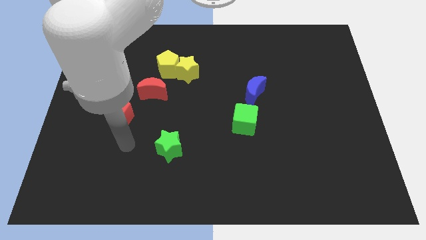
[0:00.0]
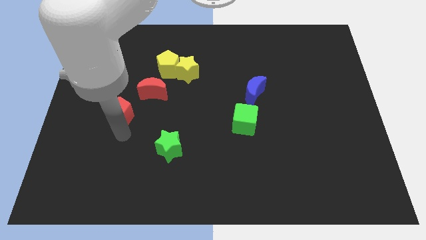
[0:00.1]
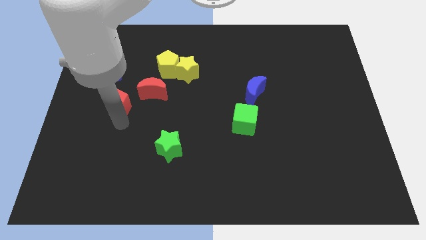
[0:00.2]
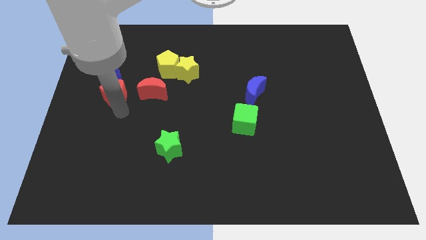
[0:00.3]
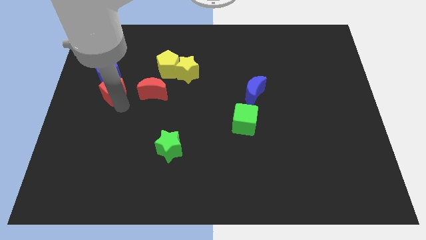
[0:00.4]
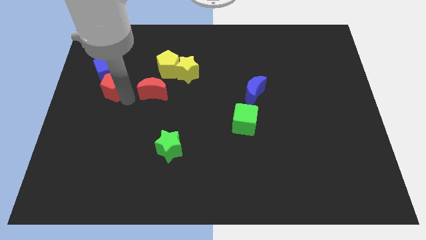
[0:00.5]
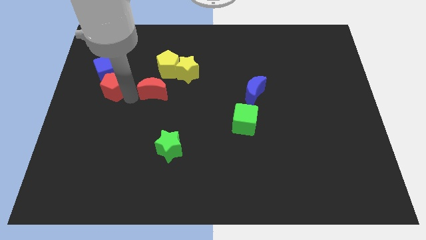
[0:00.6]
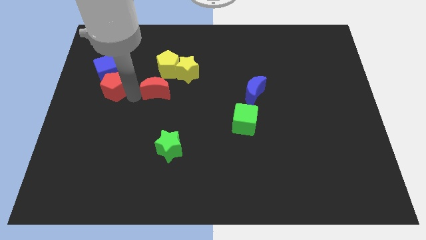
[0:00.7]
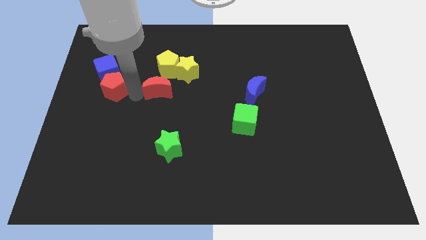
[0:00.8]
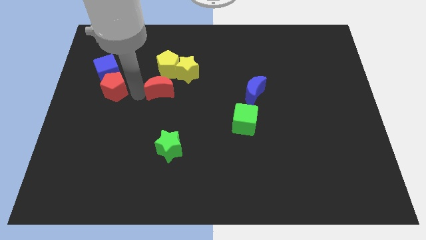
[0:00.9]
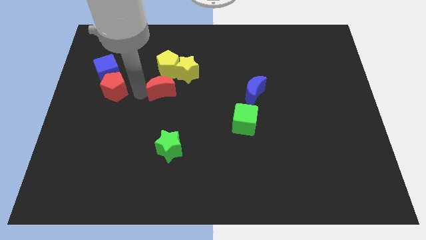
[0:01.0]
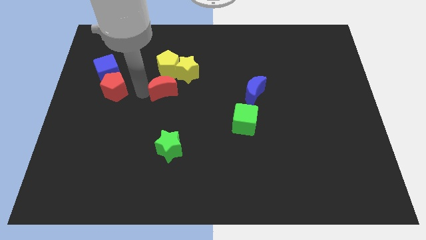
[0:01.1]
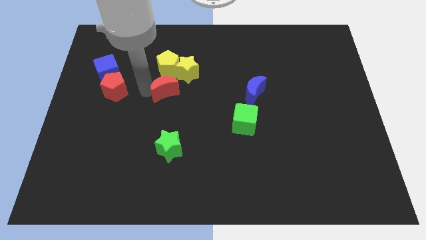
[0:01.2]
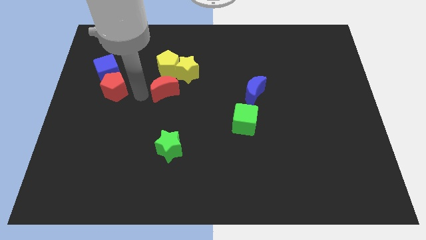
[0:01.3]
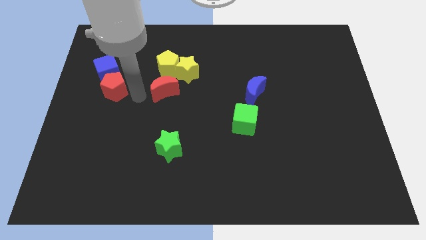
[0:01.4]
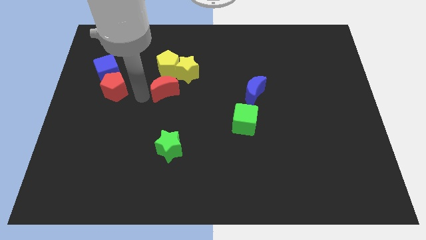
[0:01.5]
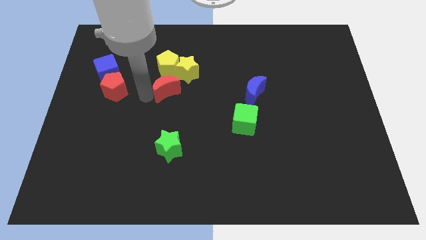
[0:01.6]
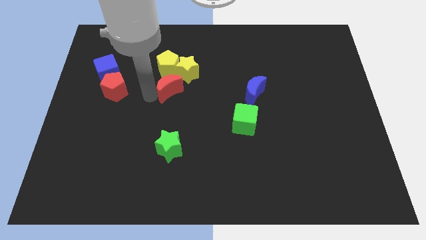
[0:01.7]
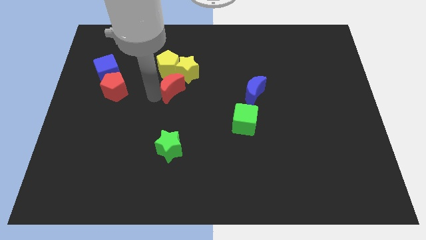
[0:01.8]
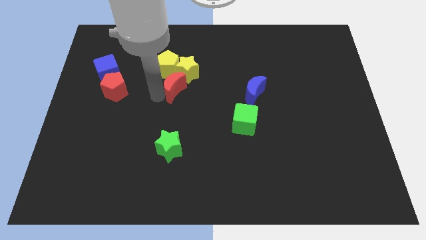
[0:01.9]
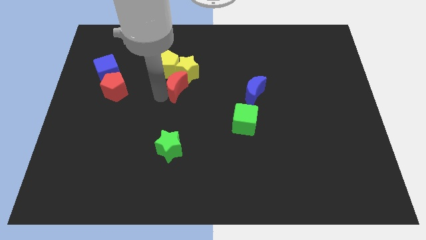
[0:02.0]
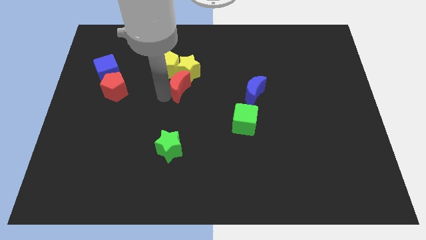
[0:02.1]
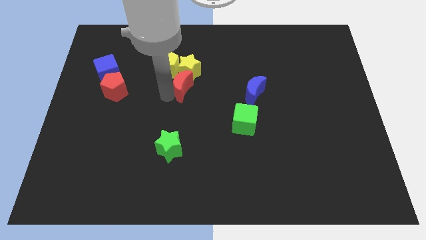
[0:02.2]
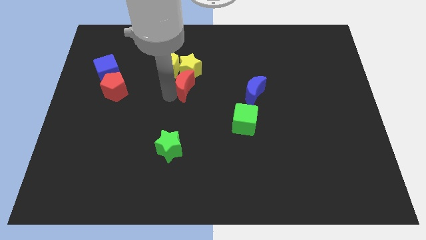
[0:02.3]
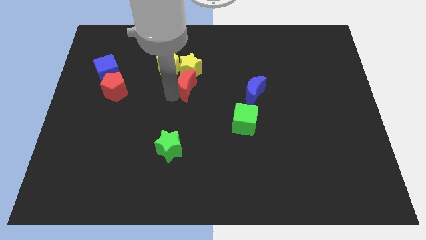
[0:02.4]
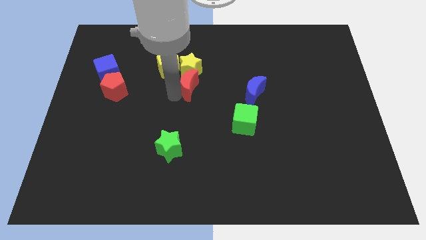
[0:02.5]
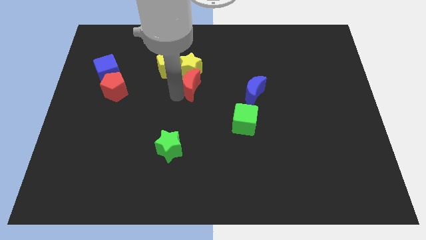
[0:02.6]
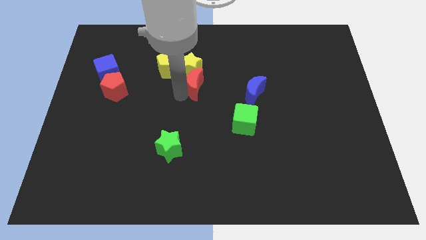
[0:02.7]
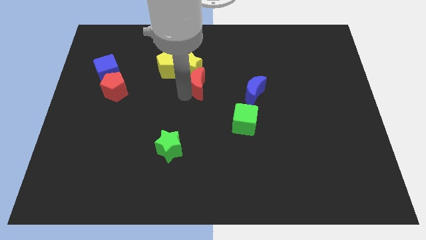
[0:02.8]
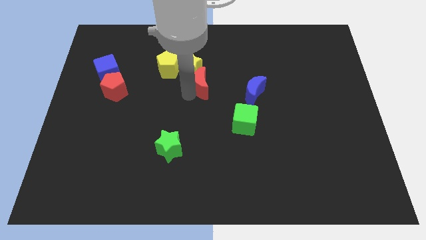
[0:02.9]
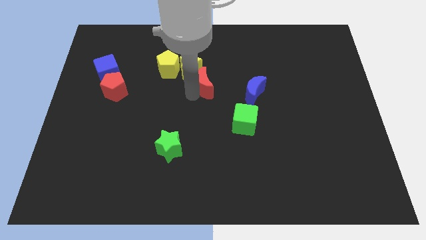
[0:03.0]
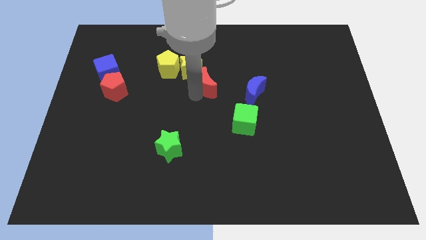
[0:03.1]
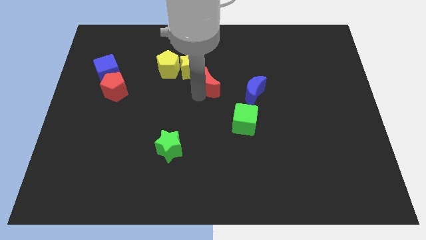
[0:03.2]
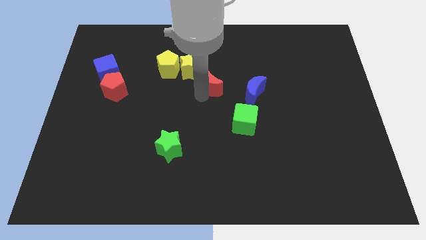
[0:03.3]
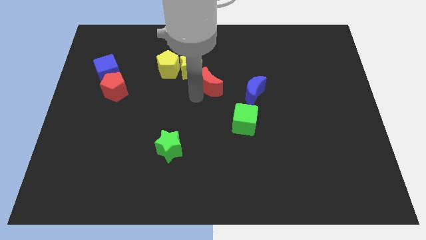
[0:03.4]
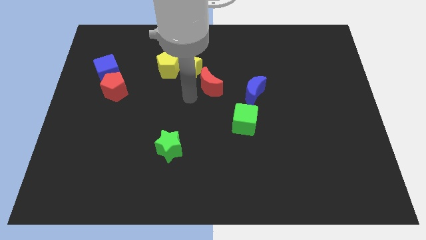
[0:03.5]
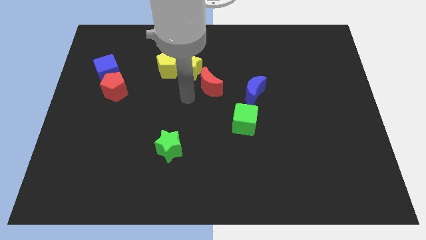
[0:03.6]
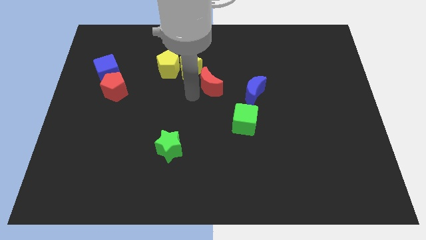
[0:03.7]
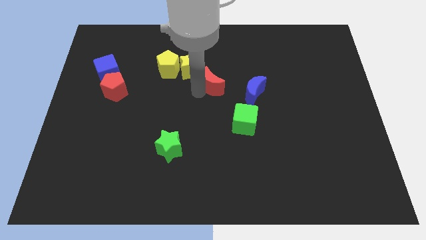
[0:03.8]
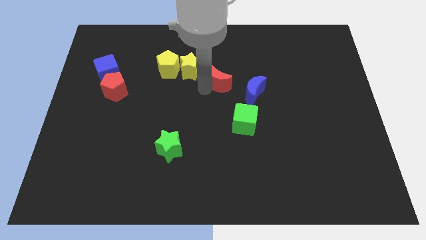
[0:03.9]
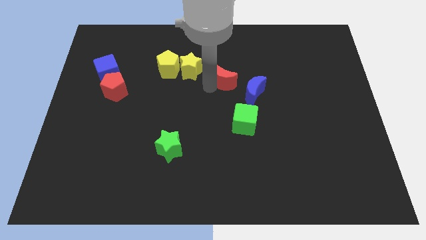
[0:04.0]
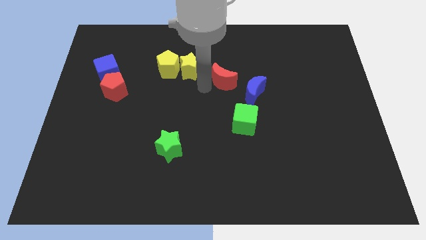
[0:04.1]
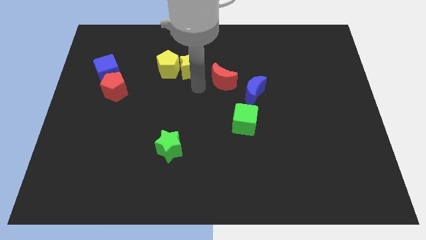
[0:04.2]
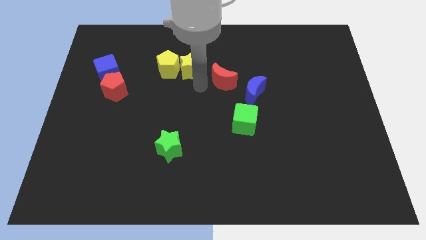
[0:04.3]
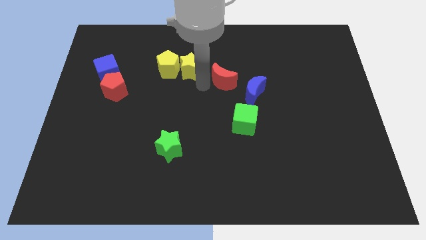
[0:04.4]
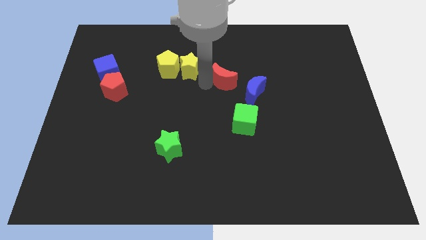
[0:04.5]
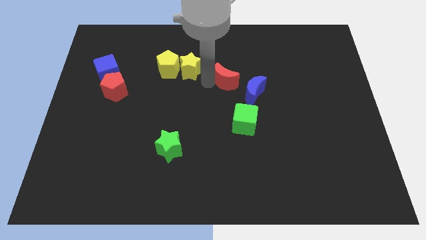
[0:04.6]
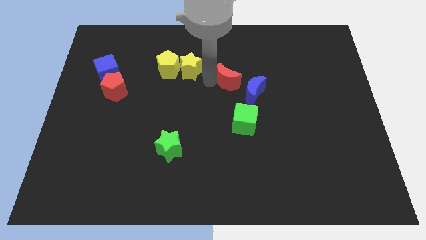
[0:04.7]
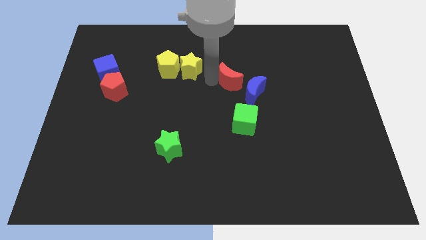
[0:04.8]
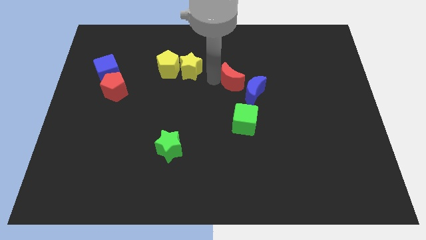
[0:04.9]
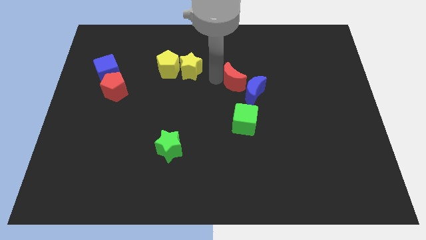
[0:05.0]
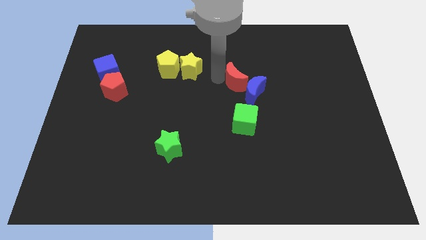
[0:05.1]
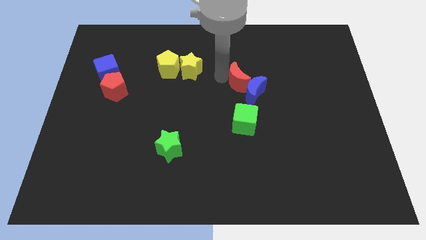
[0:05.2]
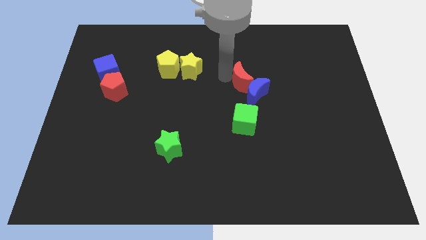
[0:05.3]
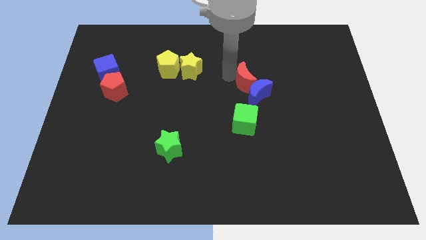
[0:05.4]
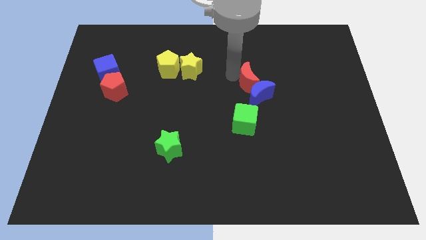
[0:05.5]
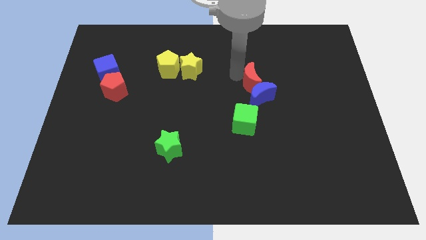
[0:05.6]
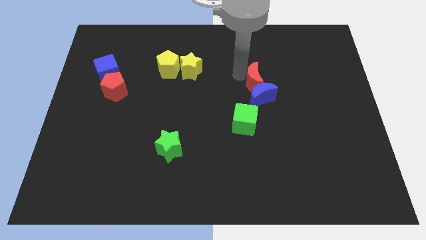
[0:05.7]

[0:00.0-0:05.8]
put the red moon to the top right side of the blue moon

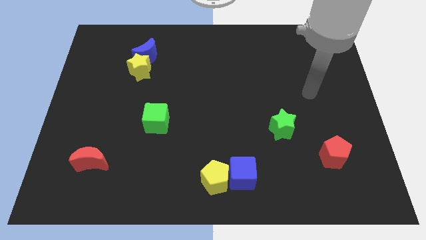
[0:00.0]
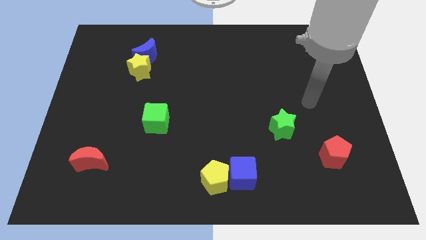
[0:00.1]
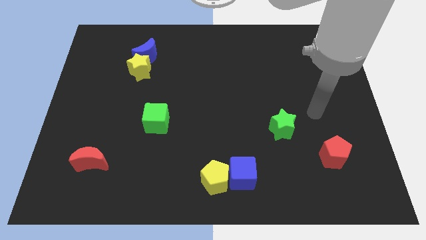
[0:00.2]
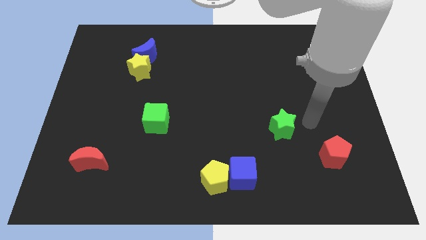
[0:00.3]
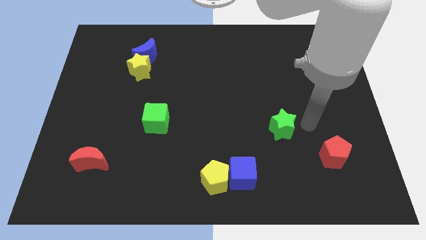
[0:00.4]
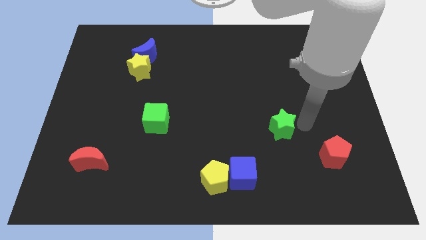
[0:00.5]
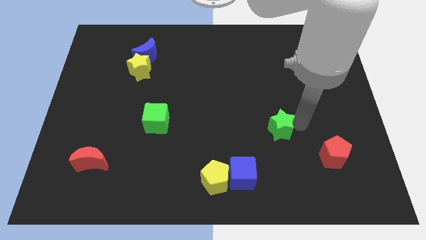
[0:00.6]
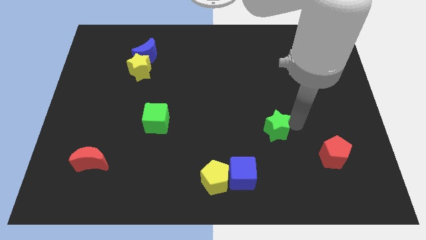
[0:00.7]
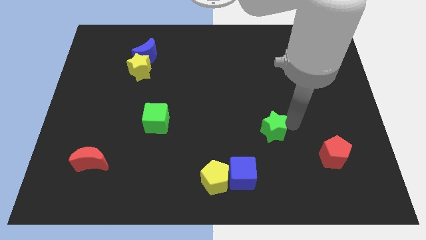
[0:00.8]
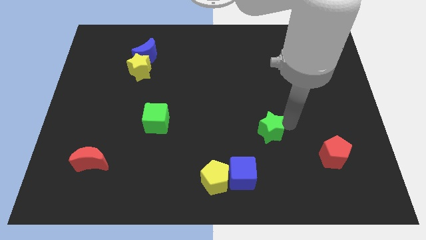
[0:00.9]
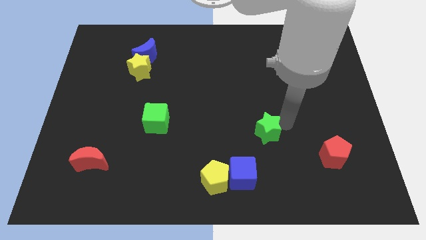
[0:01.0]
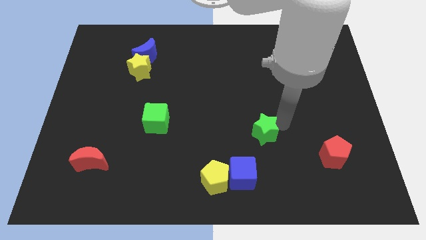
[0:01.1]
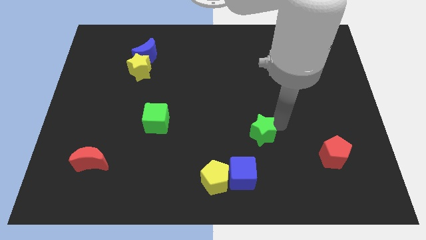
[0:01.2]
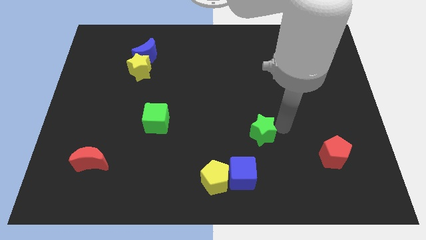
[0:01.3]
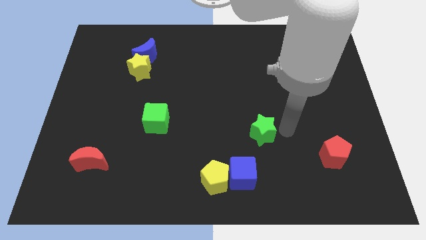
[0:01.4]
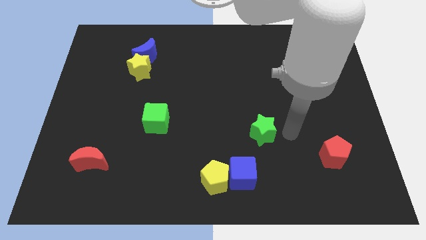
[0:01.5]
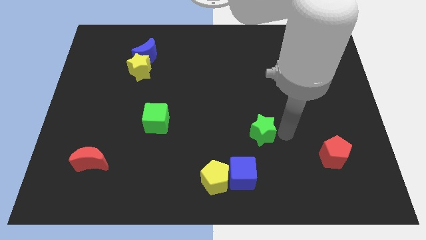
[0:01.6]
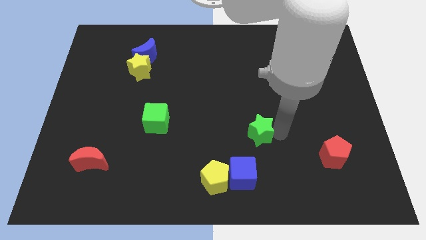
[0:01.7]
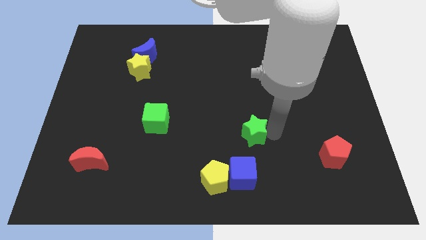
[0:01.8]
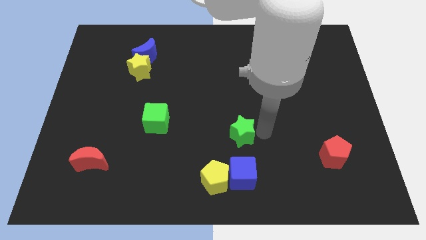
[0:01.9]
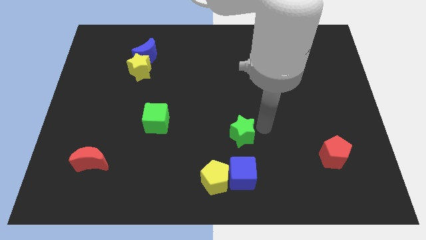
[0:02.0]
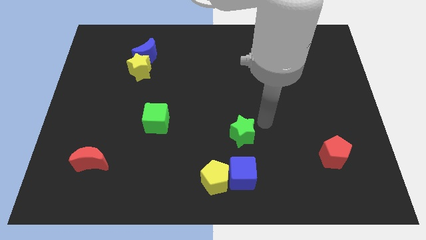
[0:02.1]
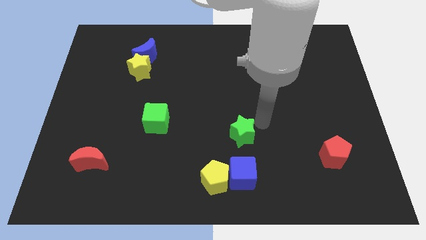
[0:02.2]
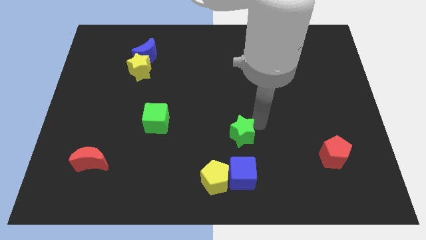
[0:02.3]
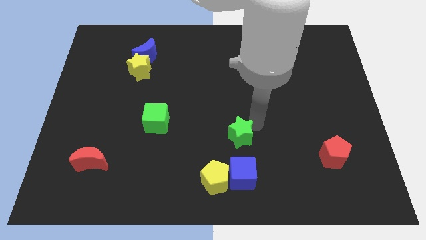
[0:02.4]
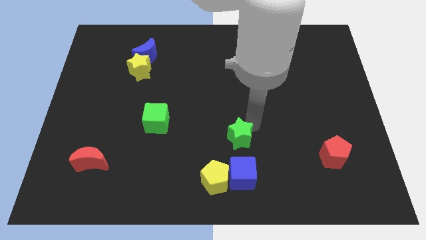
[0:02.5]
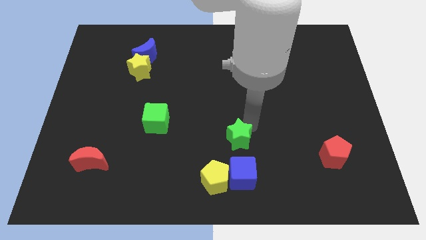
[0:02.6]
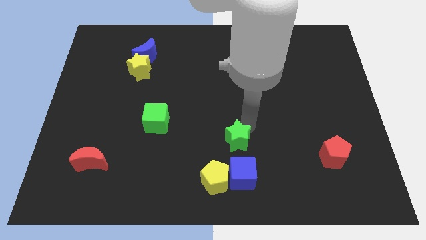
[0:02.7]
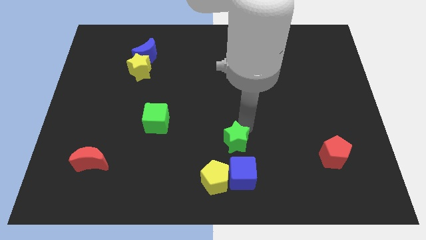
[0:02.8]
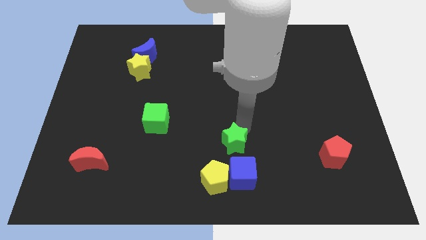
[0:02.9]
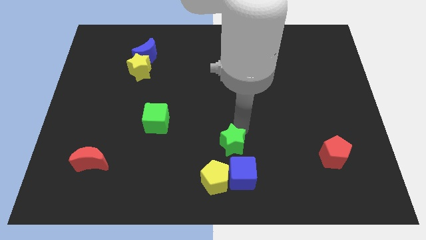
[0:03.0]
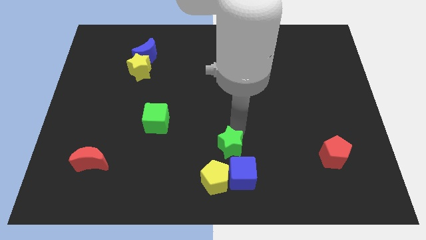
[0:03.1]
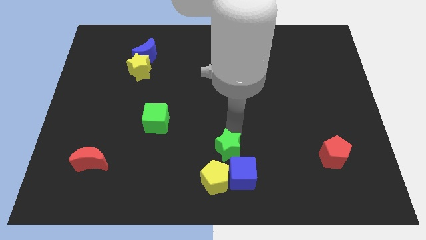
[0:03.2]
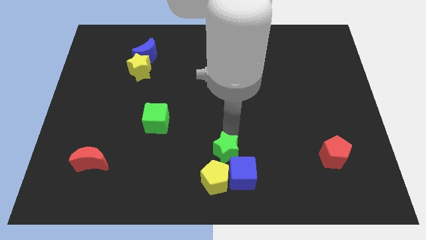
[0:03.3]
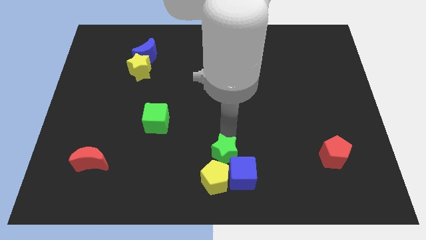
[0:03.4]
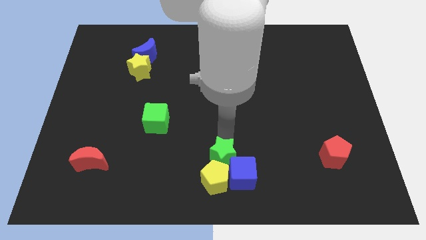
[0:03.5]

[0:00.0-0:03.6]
push the green star diagonally up and to the left of the yellow pentagon
